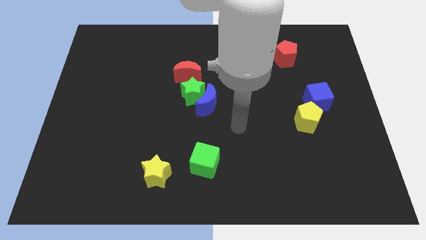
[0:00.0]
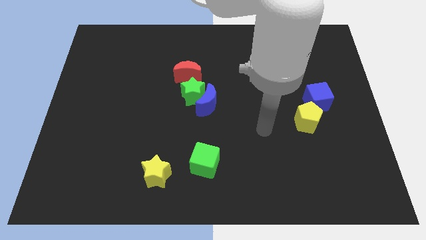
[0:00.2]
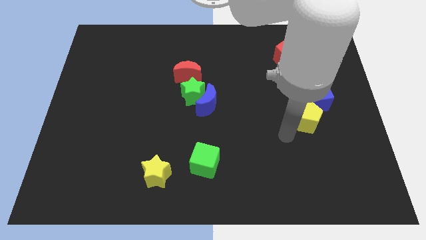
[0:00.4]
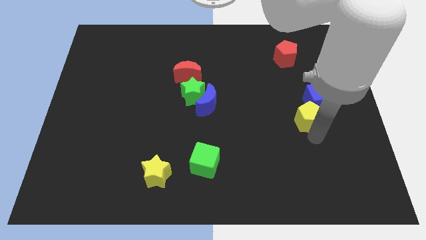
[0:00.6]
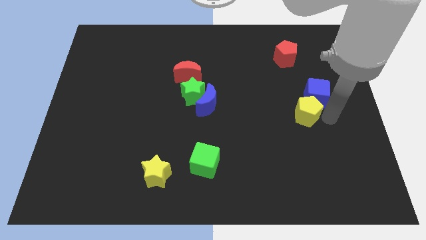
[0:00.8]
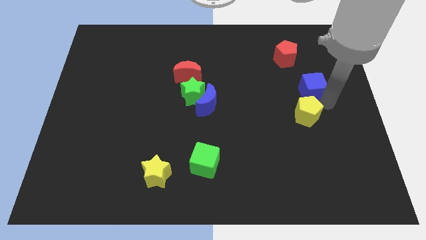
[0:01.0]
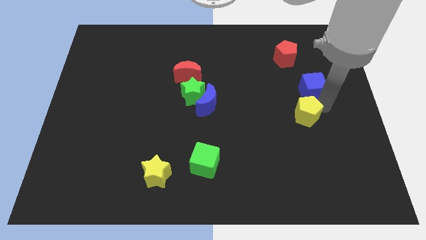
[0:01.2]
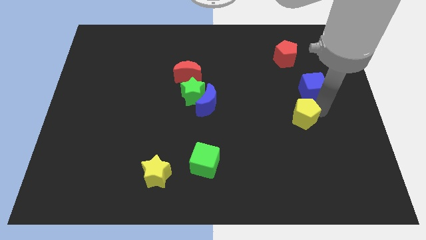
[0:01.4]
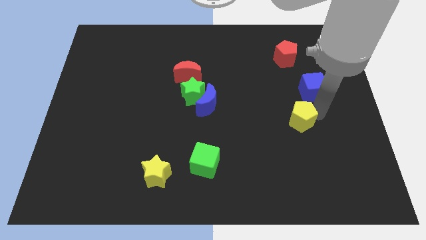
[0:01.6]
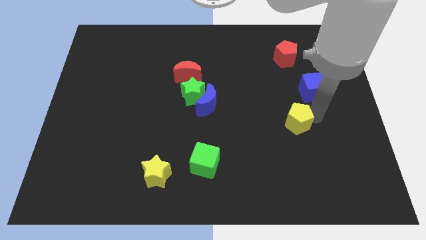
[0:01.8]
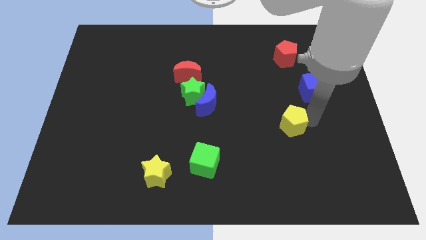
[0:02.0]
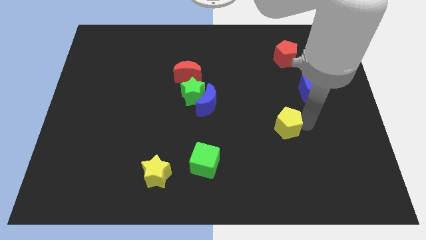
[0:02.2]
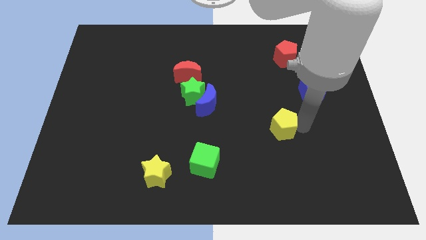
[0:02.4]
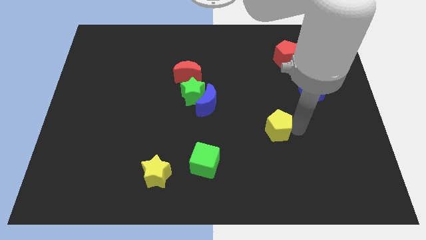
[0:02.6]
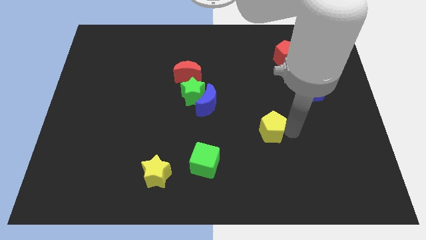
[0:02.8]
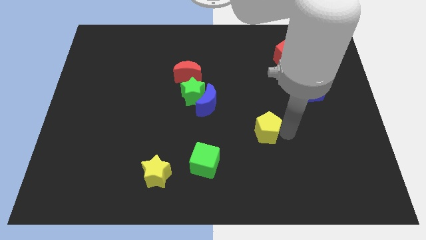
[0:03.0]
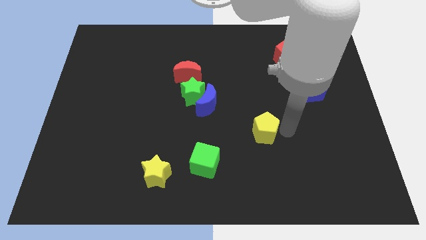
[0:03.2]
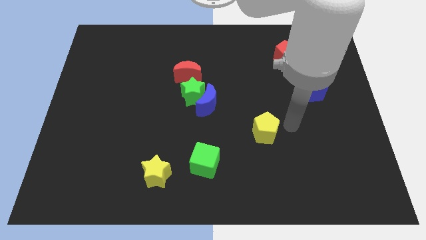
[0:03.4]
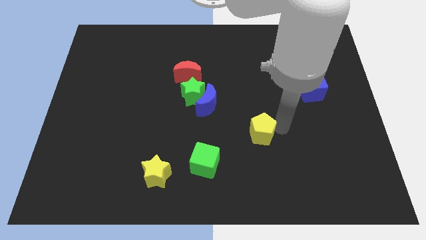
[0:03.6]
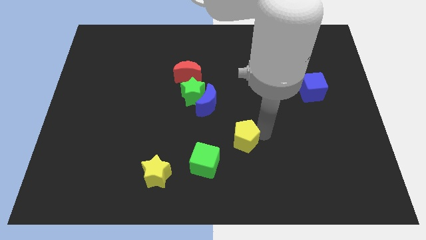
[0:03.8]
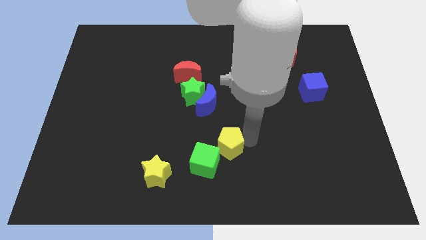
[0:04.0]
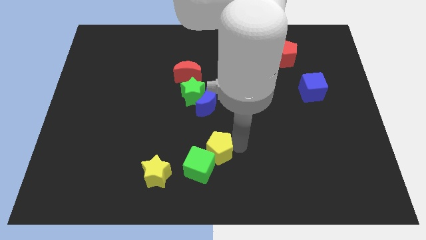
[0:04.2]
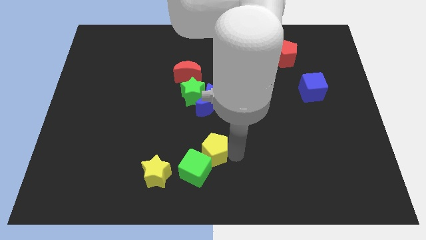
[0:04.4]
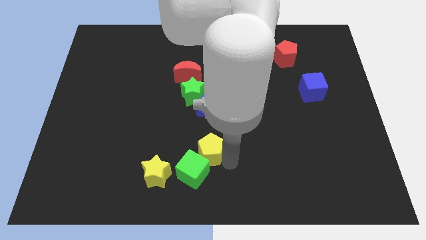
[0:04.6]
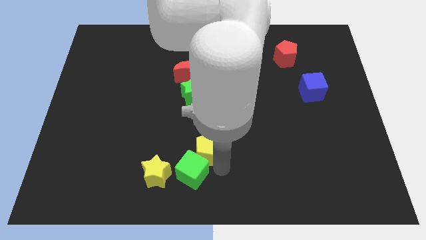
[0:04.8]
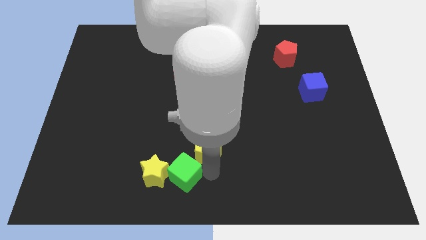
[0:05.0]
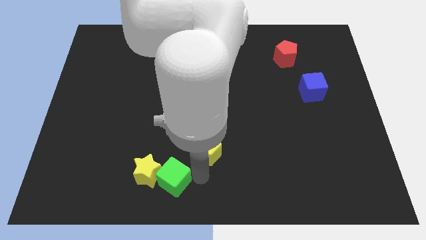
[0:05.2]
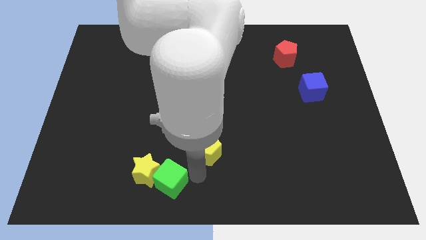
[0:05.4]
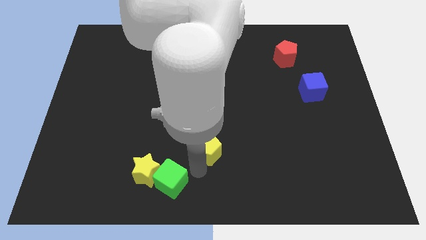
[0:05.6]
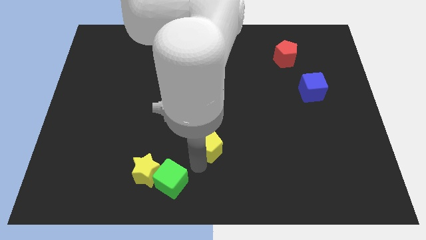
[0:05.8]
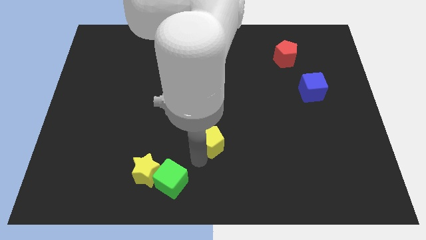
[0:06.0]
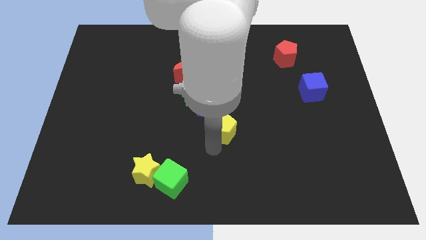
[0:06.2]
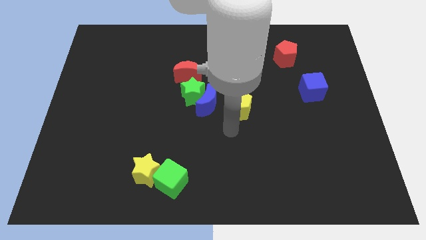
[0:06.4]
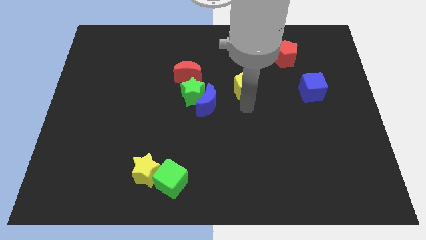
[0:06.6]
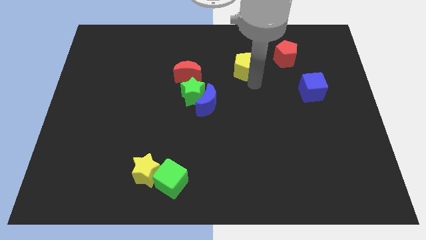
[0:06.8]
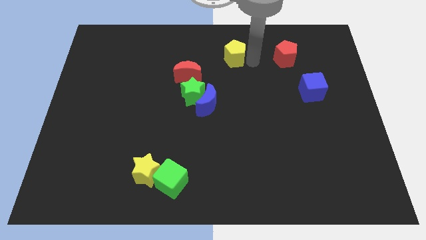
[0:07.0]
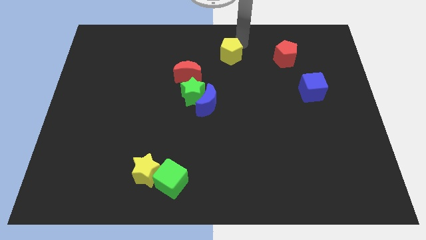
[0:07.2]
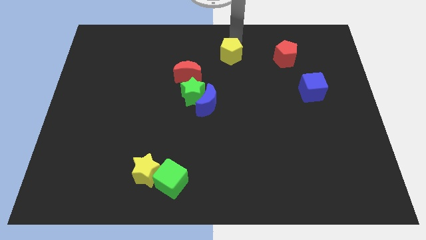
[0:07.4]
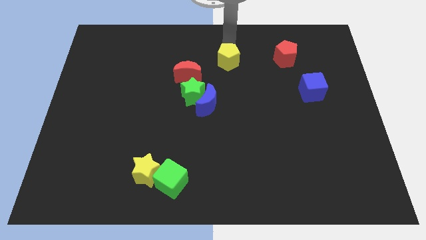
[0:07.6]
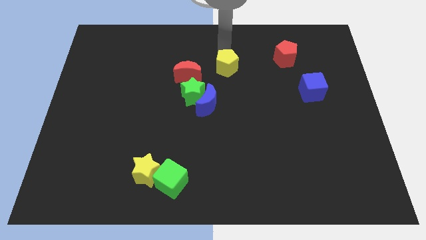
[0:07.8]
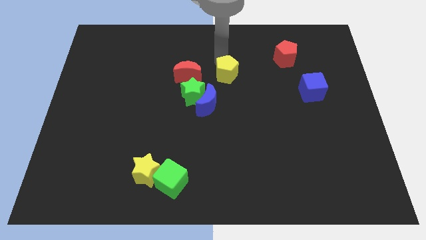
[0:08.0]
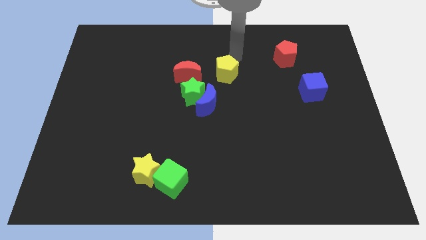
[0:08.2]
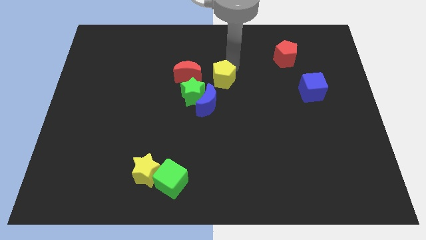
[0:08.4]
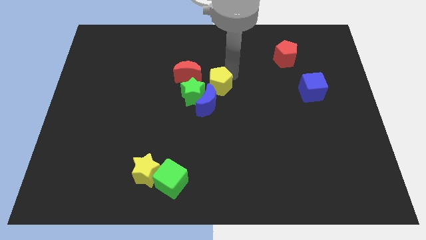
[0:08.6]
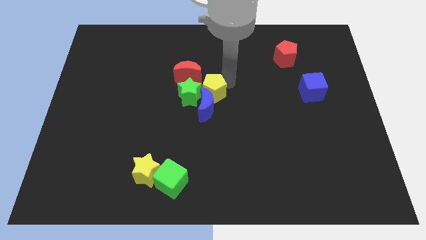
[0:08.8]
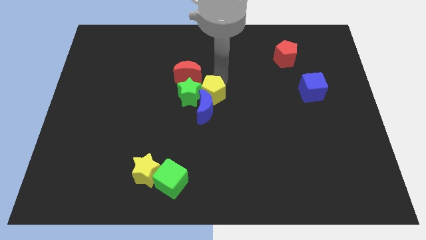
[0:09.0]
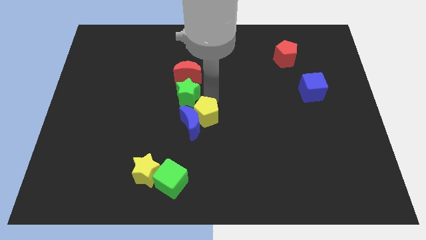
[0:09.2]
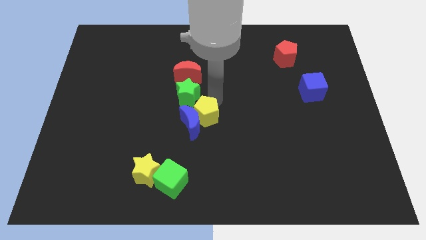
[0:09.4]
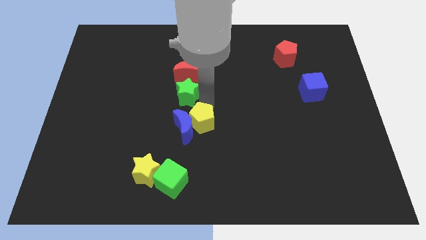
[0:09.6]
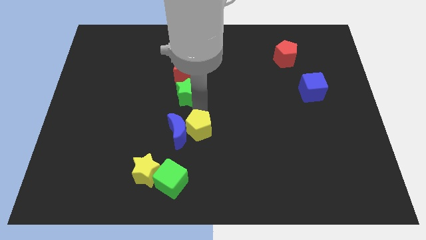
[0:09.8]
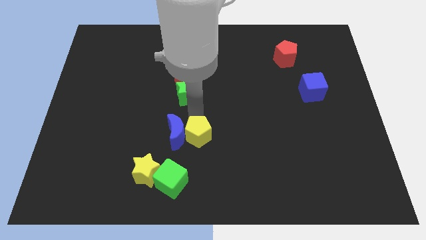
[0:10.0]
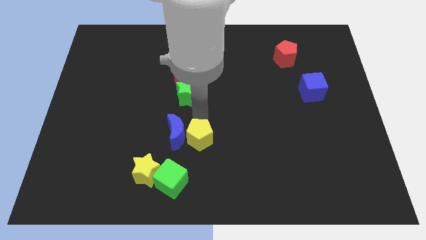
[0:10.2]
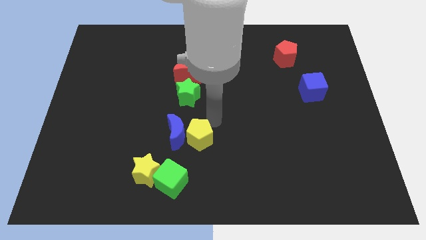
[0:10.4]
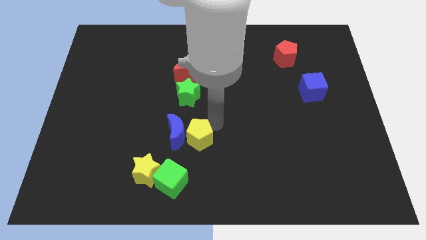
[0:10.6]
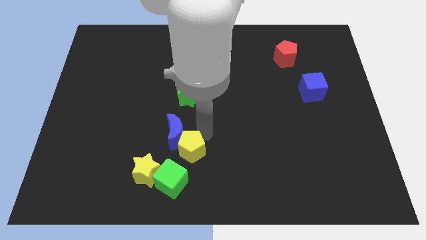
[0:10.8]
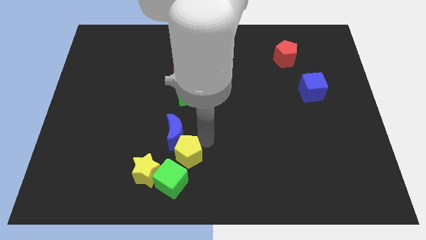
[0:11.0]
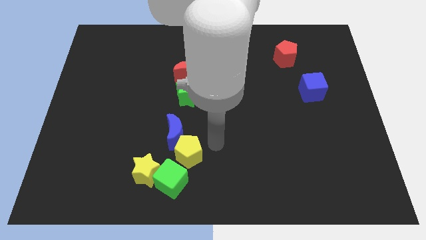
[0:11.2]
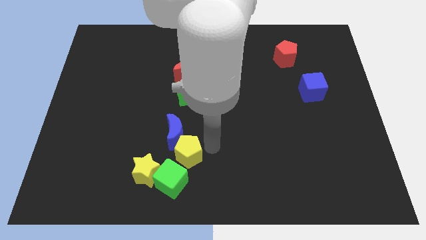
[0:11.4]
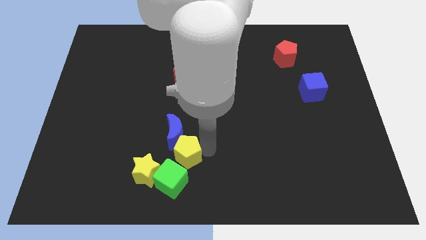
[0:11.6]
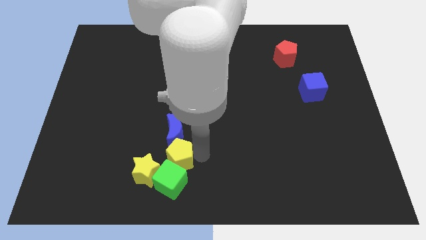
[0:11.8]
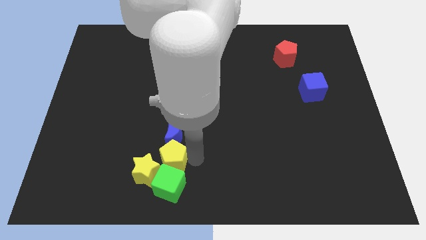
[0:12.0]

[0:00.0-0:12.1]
push the yellow pentagon next to the yellow star

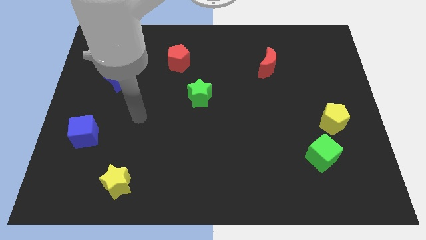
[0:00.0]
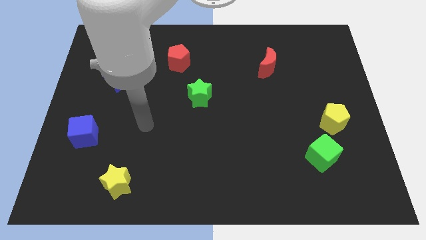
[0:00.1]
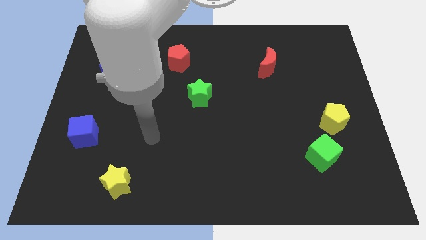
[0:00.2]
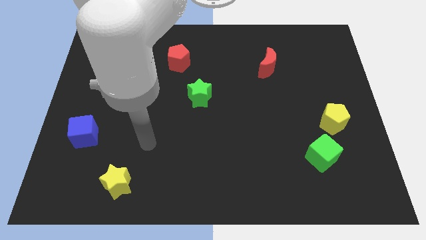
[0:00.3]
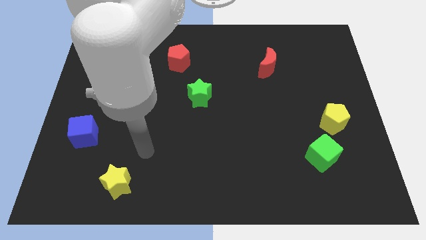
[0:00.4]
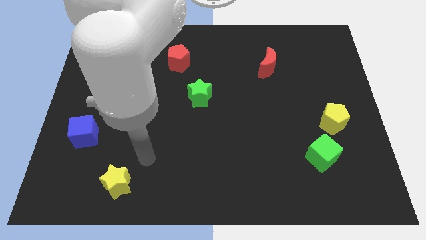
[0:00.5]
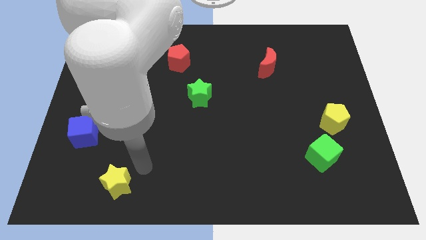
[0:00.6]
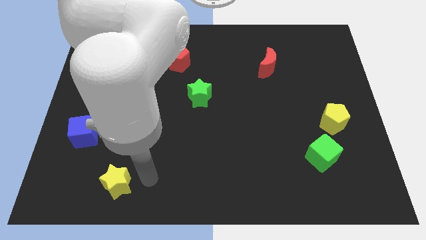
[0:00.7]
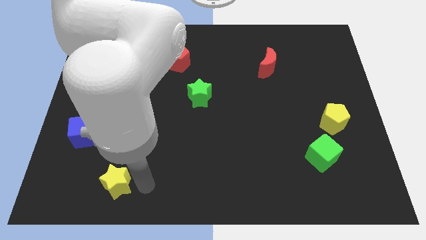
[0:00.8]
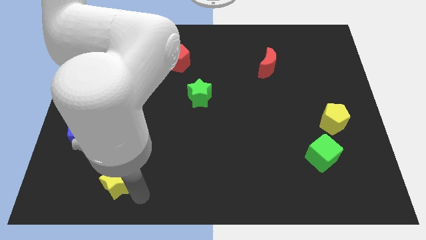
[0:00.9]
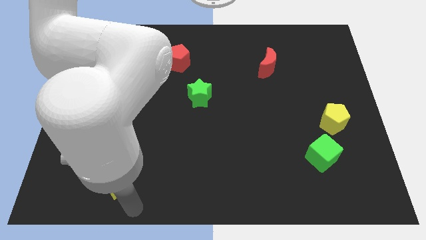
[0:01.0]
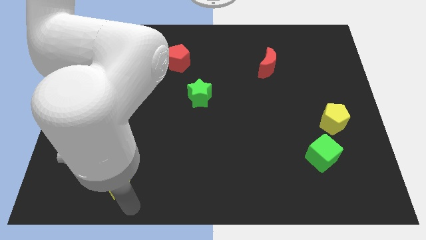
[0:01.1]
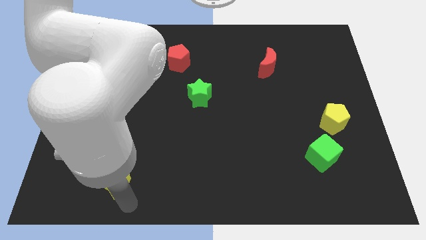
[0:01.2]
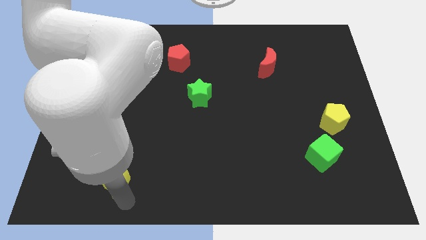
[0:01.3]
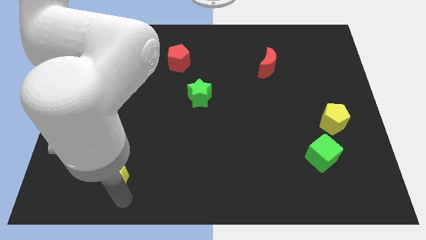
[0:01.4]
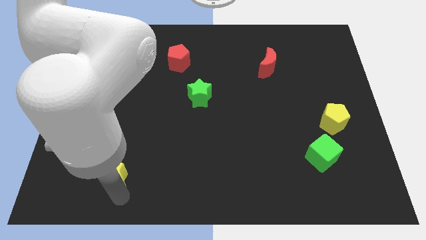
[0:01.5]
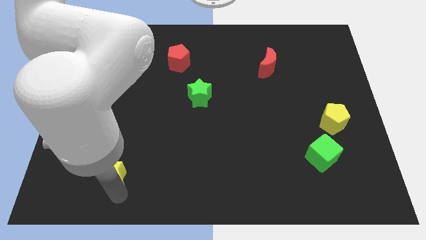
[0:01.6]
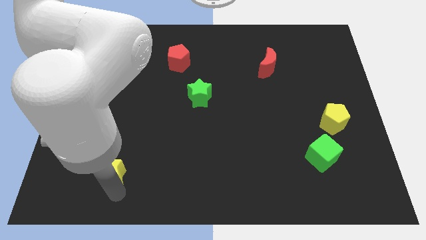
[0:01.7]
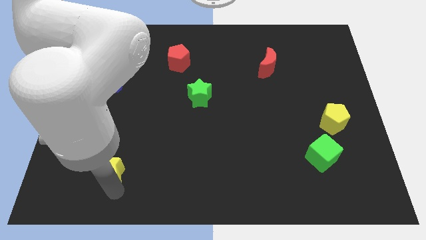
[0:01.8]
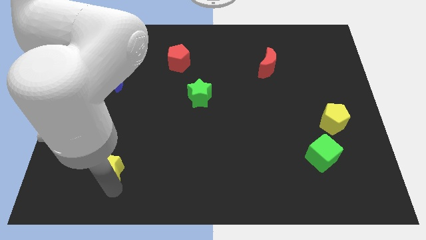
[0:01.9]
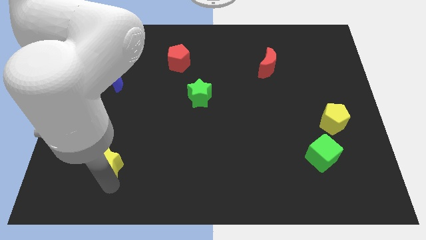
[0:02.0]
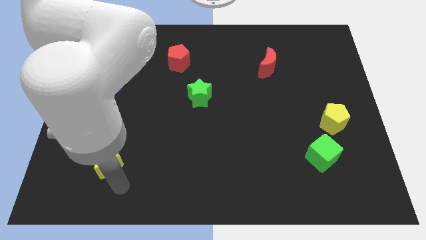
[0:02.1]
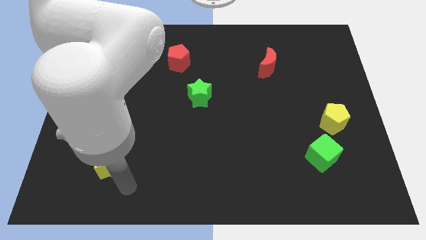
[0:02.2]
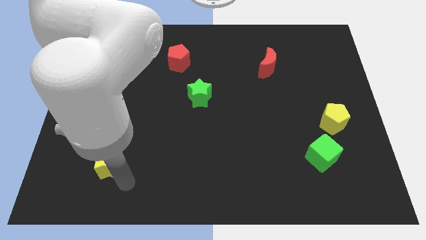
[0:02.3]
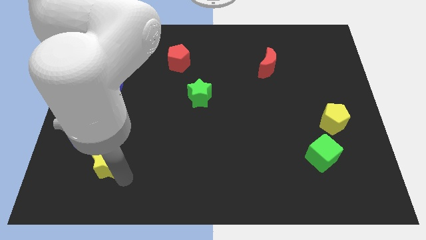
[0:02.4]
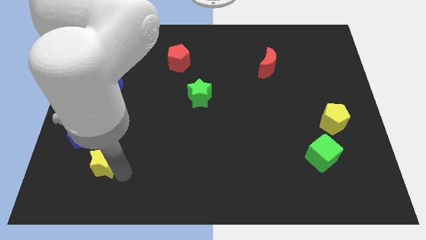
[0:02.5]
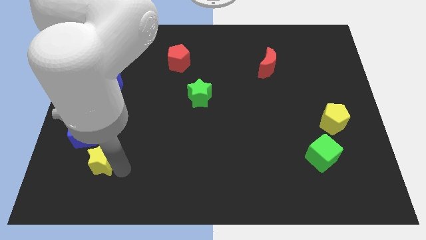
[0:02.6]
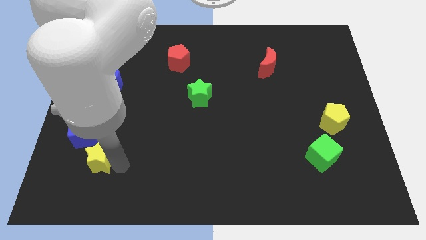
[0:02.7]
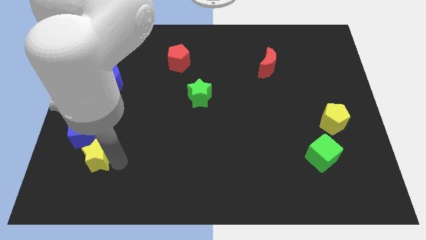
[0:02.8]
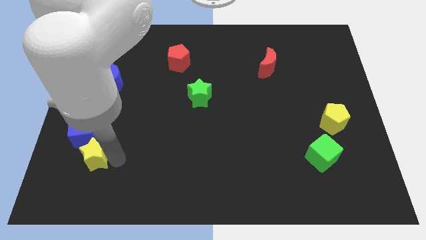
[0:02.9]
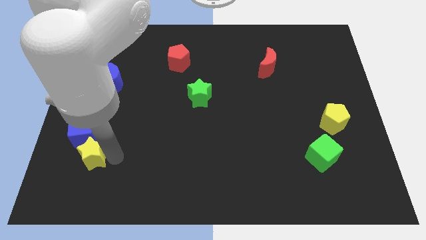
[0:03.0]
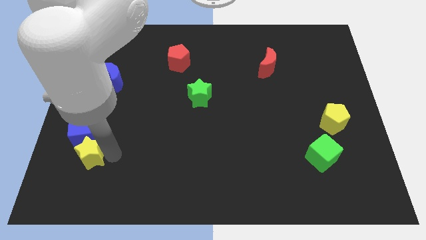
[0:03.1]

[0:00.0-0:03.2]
put the yellow star next to the blue cube
